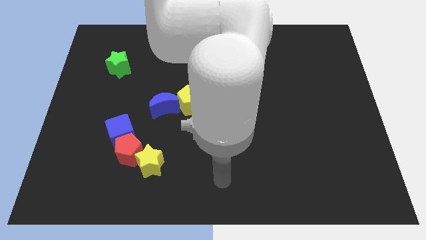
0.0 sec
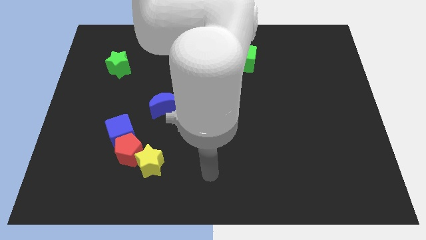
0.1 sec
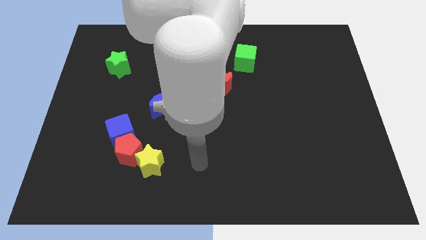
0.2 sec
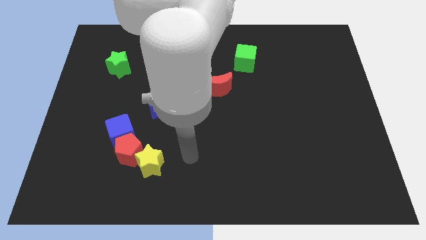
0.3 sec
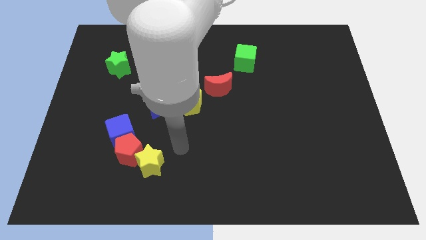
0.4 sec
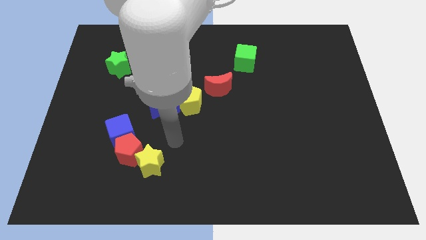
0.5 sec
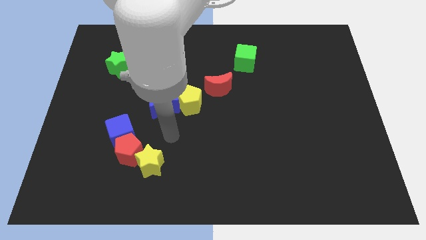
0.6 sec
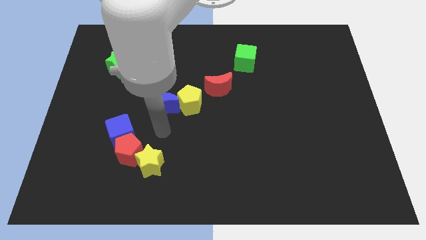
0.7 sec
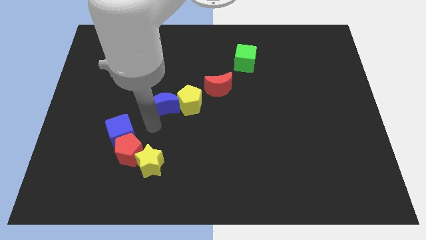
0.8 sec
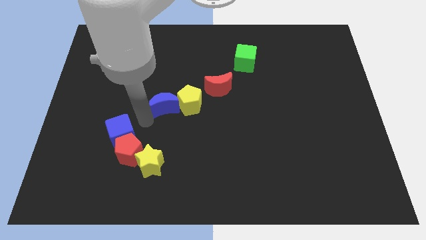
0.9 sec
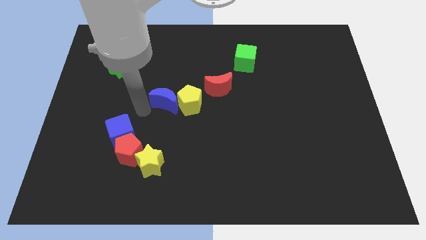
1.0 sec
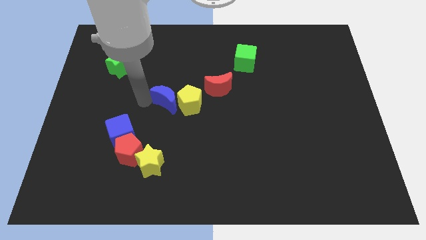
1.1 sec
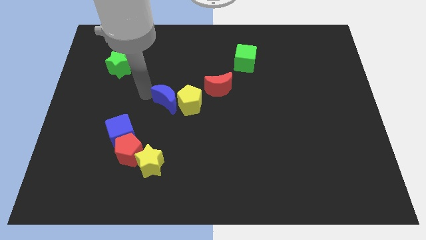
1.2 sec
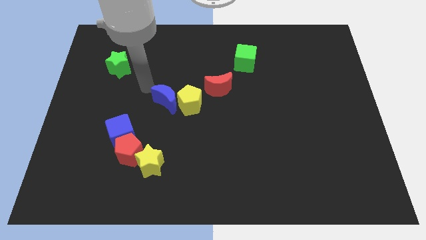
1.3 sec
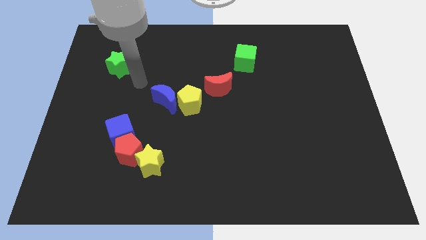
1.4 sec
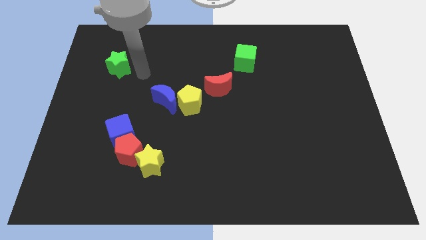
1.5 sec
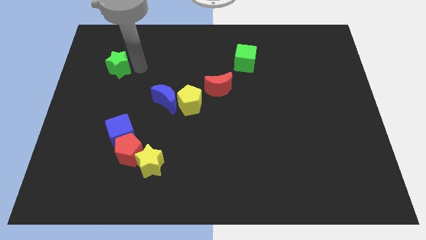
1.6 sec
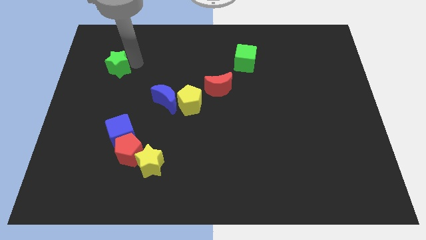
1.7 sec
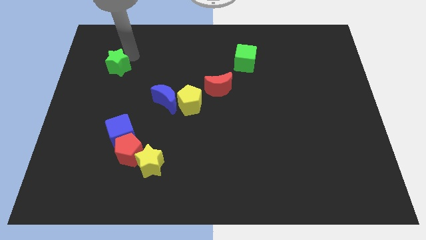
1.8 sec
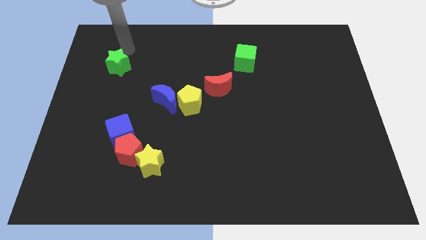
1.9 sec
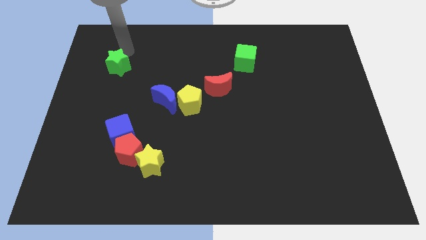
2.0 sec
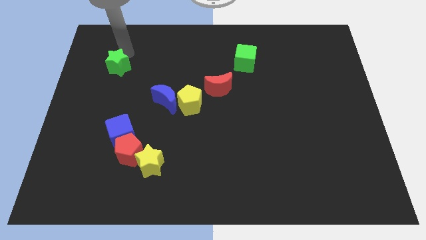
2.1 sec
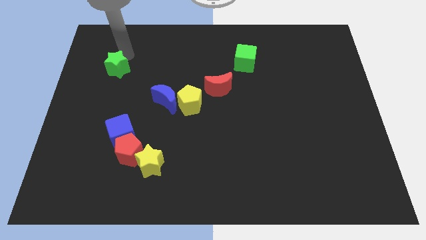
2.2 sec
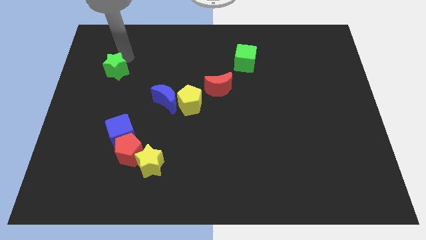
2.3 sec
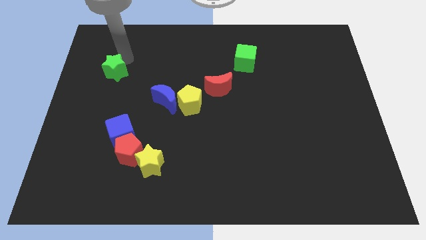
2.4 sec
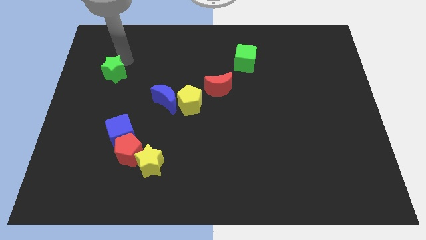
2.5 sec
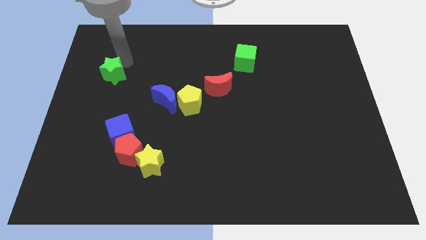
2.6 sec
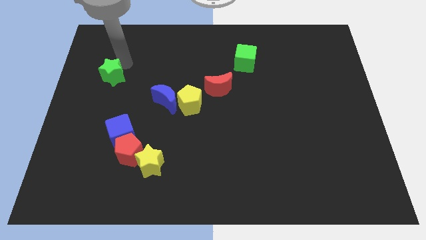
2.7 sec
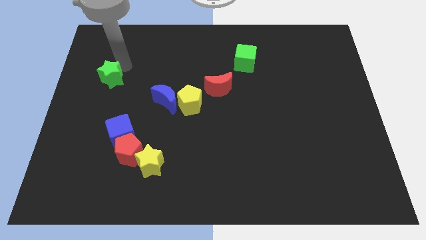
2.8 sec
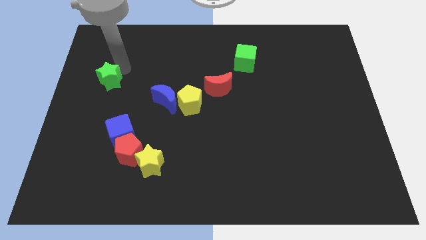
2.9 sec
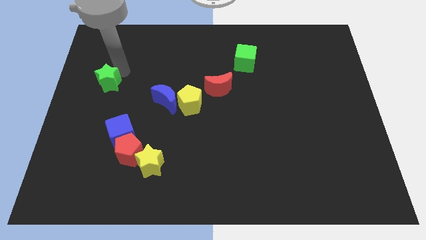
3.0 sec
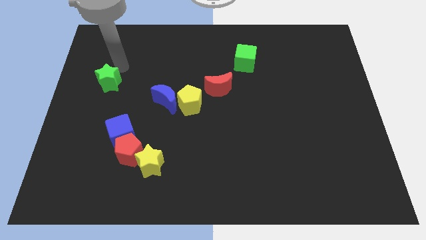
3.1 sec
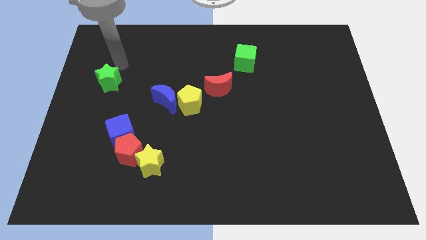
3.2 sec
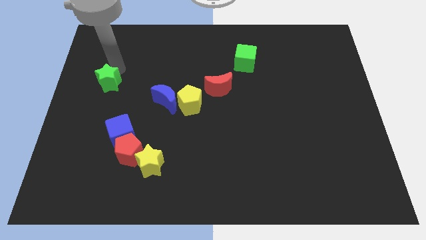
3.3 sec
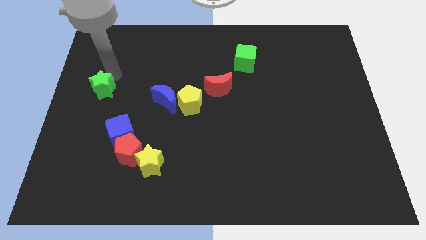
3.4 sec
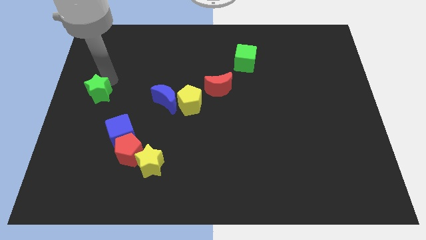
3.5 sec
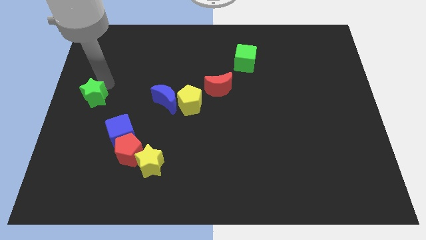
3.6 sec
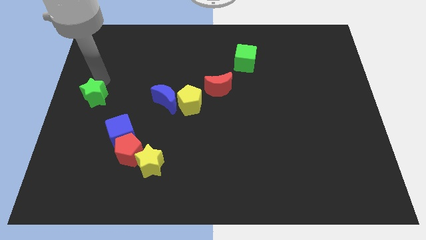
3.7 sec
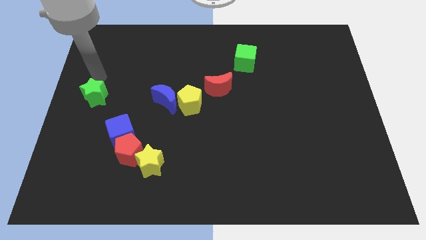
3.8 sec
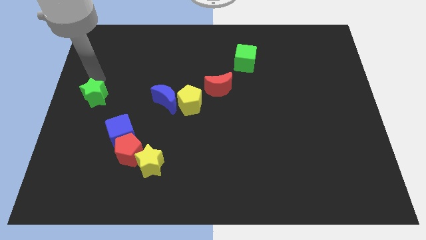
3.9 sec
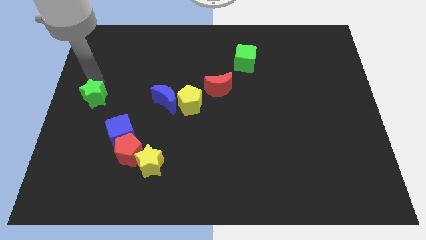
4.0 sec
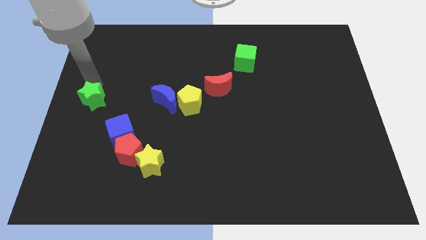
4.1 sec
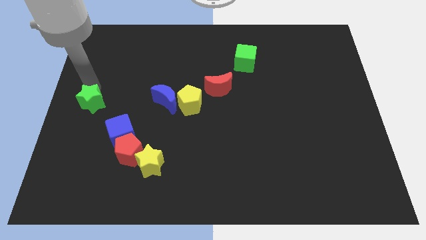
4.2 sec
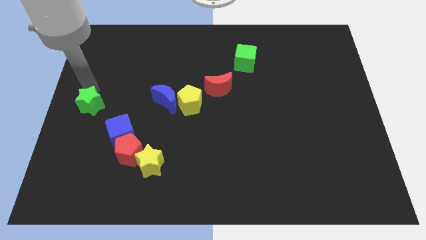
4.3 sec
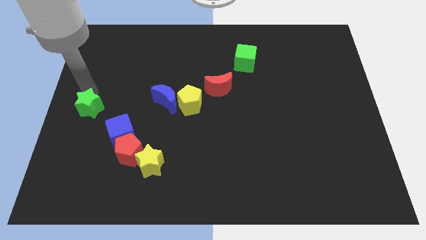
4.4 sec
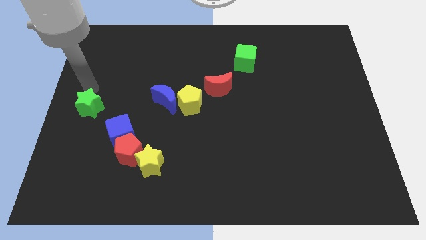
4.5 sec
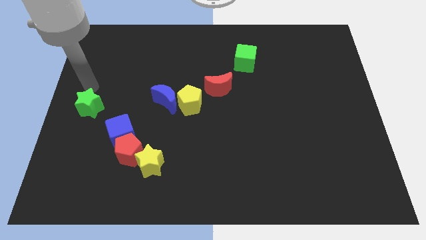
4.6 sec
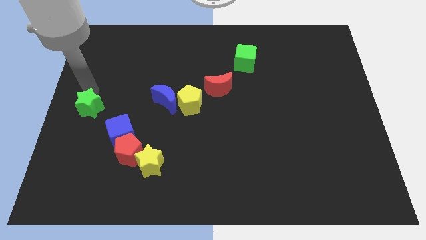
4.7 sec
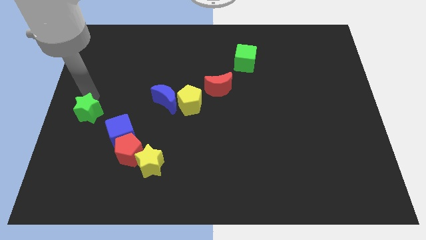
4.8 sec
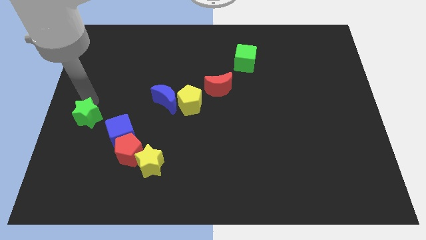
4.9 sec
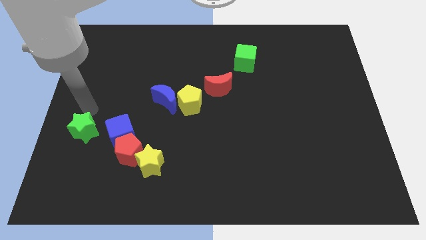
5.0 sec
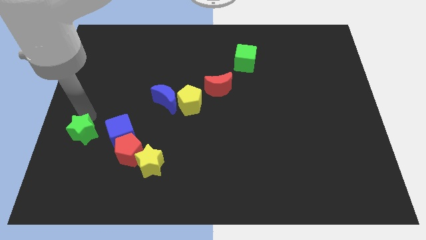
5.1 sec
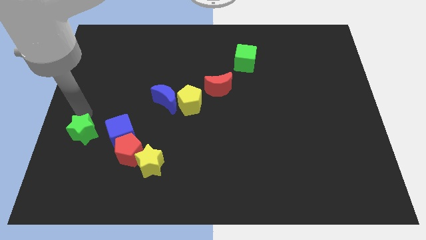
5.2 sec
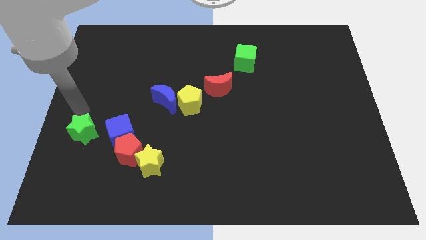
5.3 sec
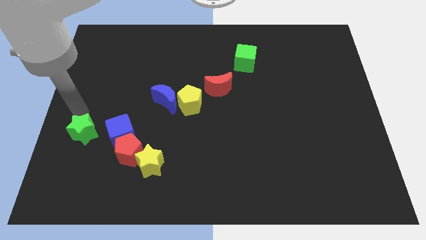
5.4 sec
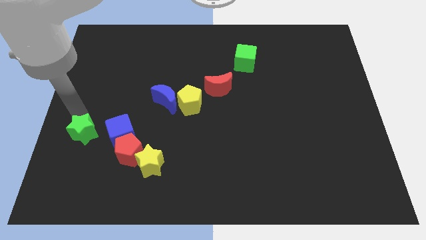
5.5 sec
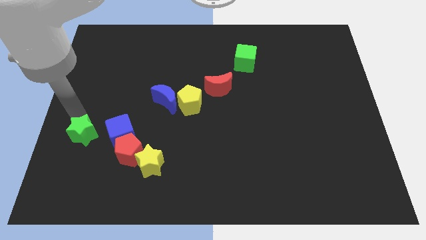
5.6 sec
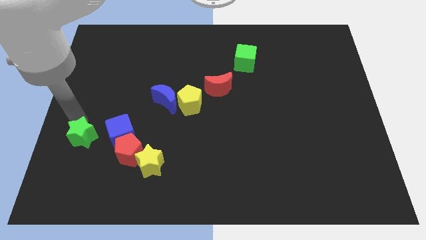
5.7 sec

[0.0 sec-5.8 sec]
slide the green star down

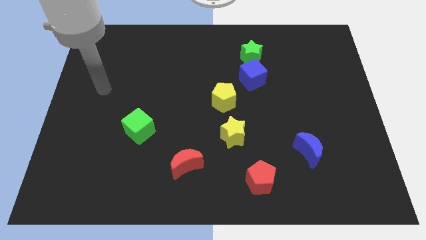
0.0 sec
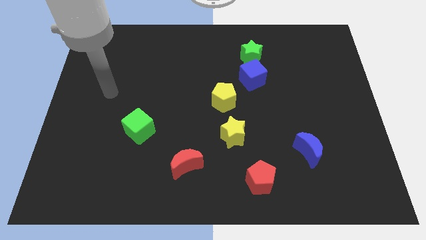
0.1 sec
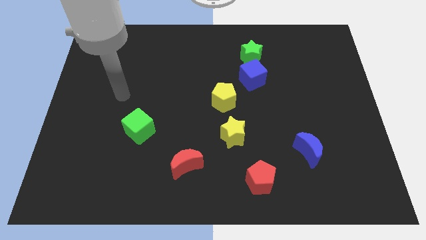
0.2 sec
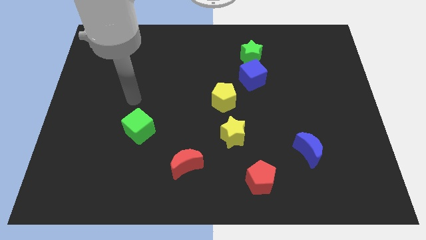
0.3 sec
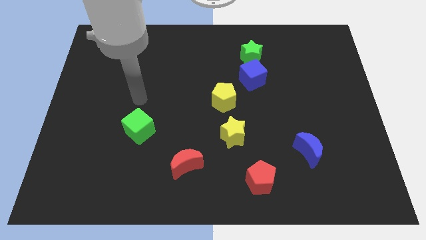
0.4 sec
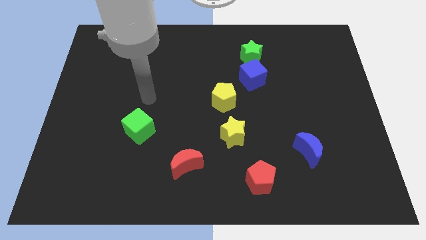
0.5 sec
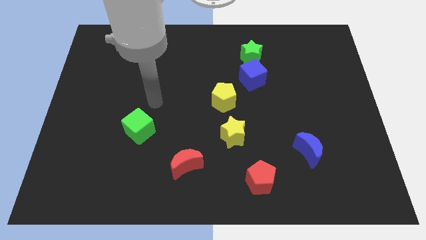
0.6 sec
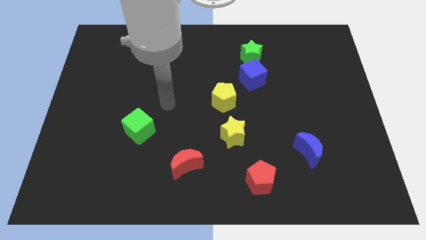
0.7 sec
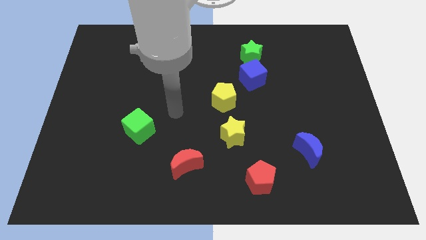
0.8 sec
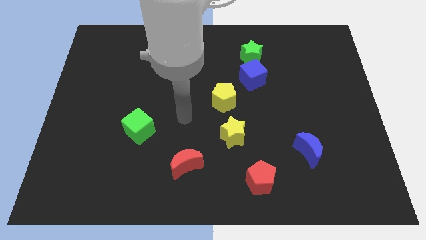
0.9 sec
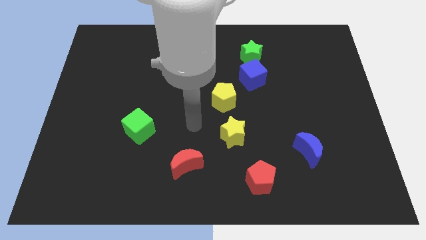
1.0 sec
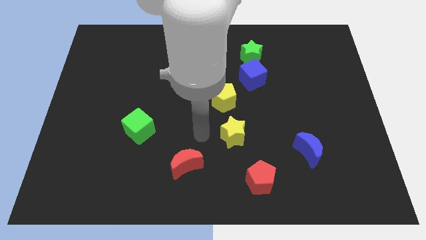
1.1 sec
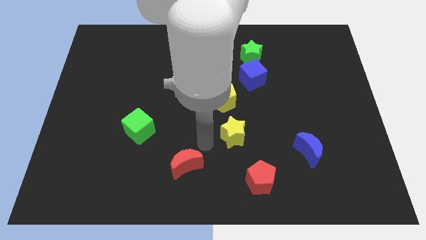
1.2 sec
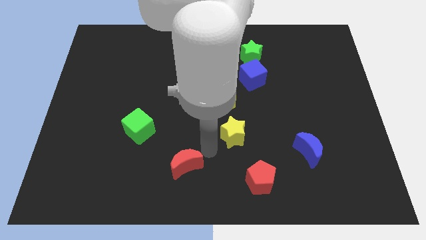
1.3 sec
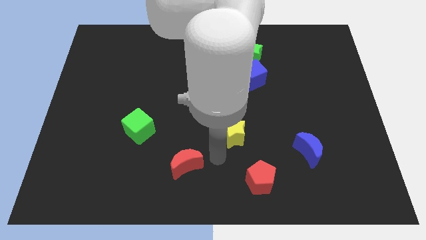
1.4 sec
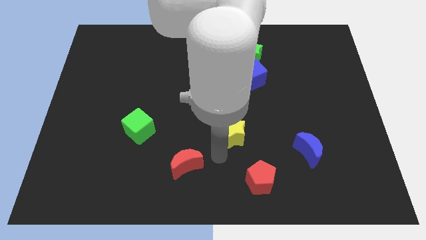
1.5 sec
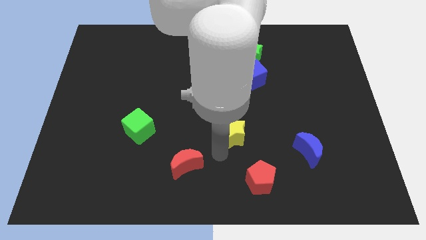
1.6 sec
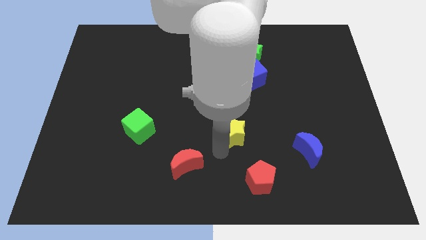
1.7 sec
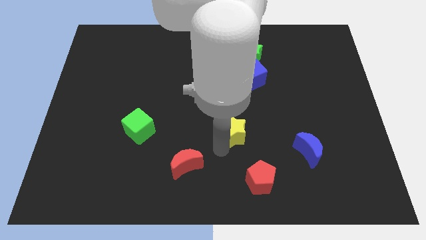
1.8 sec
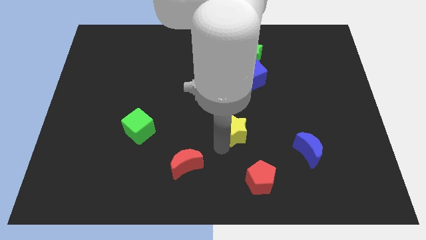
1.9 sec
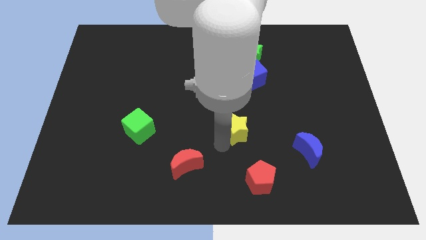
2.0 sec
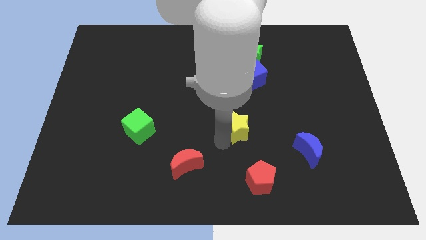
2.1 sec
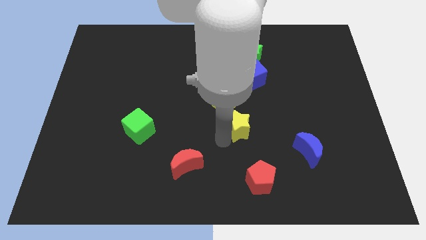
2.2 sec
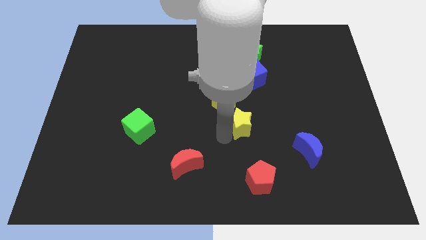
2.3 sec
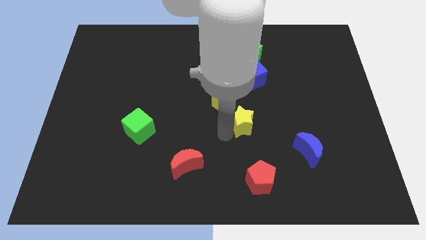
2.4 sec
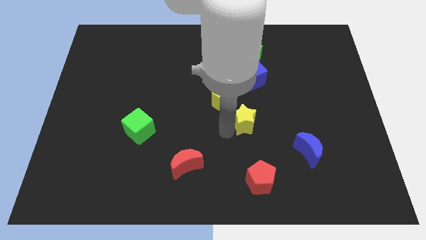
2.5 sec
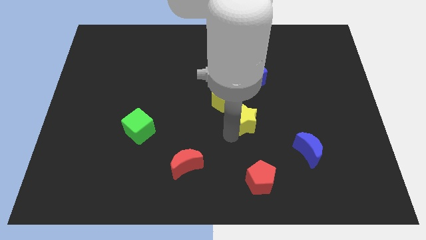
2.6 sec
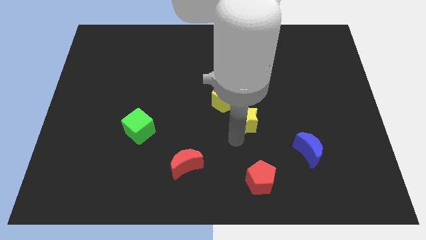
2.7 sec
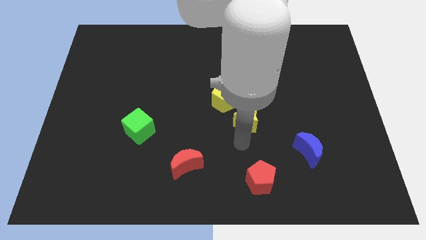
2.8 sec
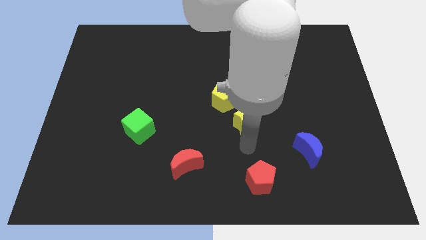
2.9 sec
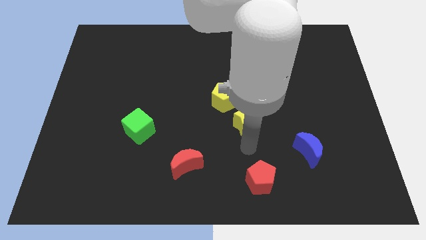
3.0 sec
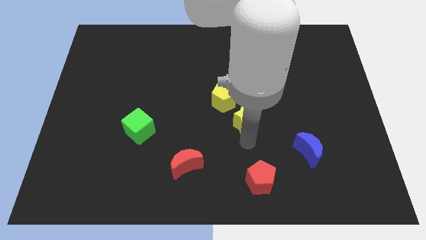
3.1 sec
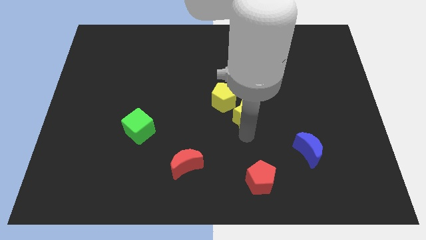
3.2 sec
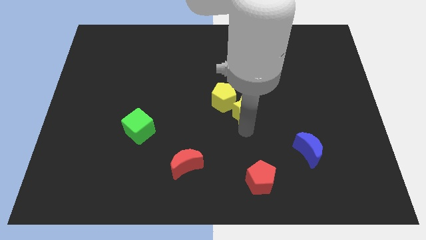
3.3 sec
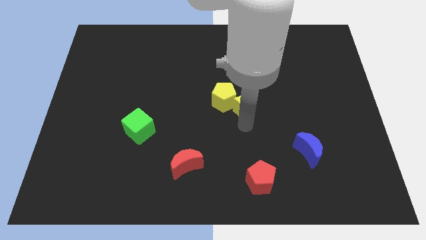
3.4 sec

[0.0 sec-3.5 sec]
push the yellow star upwards a little bit
